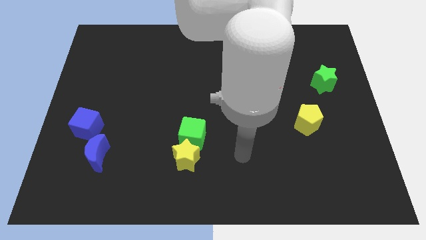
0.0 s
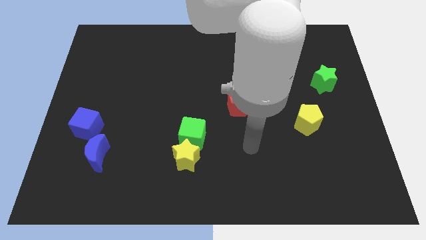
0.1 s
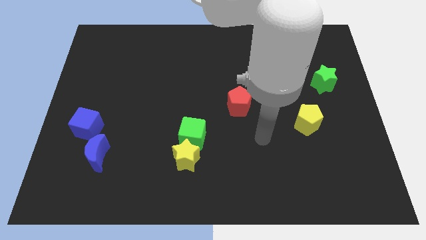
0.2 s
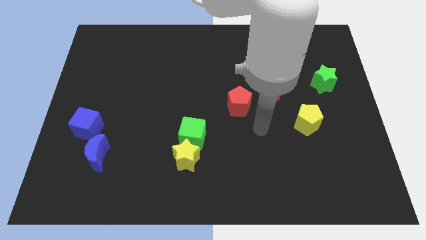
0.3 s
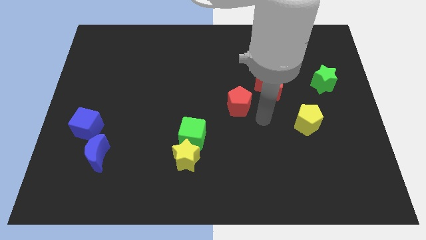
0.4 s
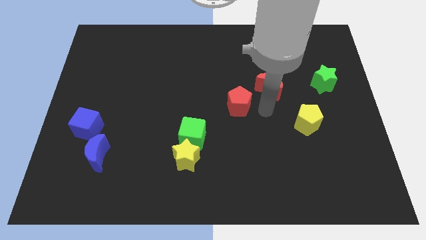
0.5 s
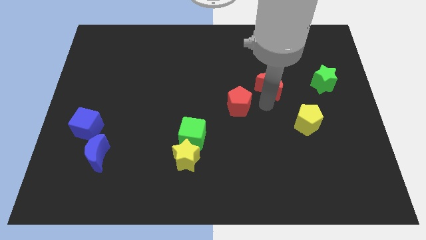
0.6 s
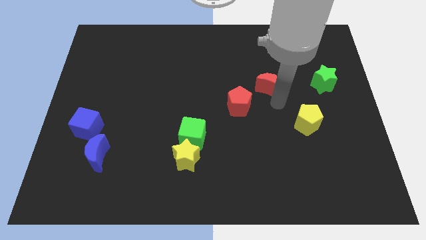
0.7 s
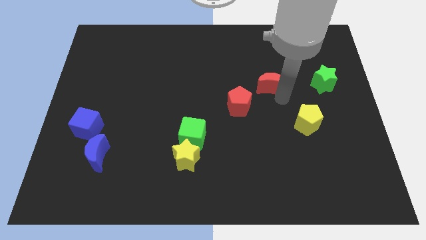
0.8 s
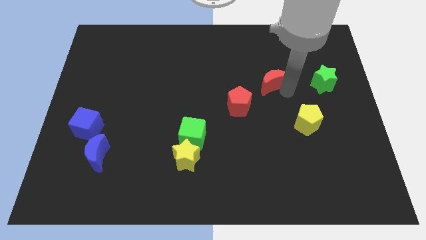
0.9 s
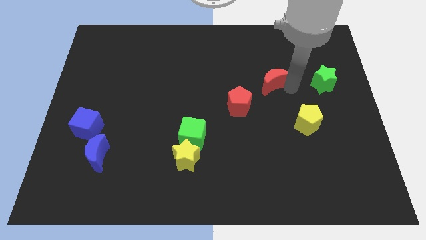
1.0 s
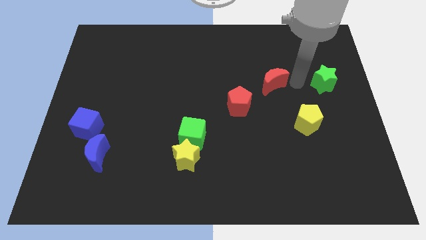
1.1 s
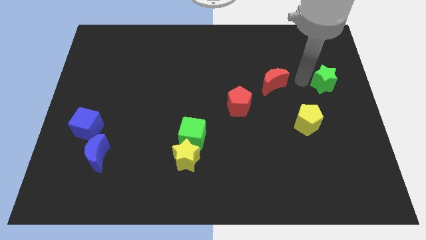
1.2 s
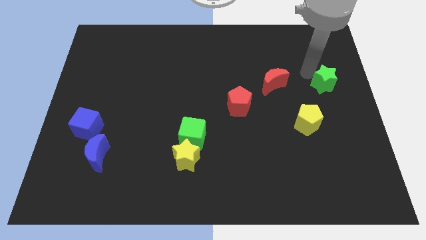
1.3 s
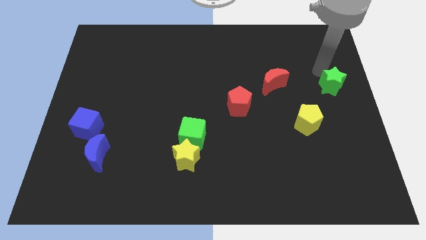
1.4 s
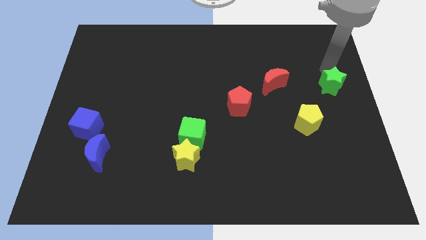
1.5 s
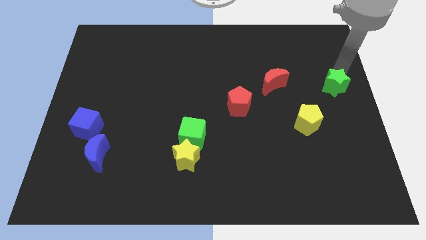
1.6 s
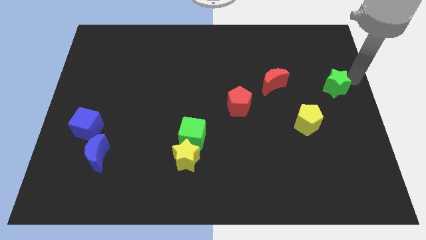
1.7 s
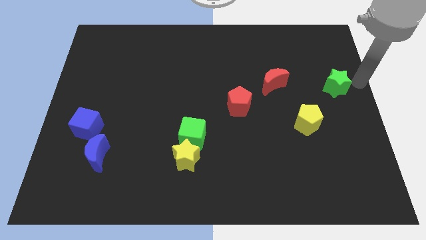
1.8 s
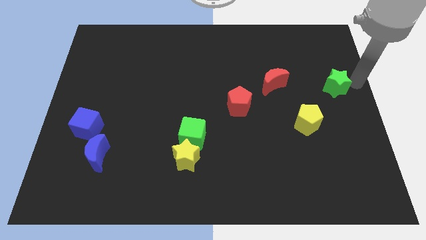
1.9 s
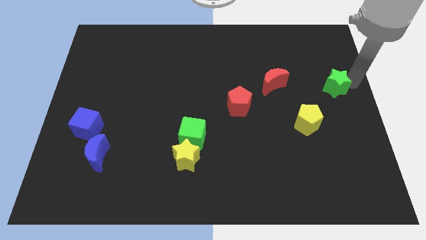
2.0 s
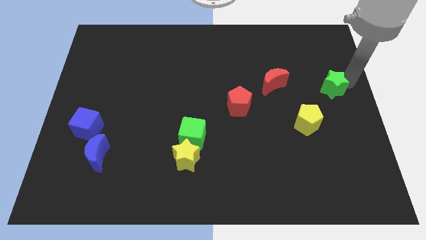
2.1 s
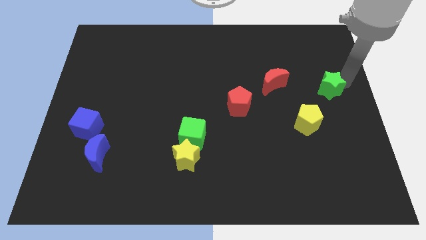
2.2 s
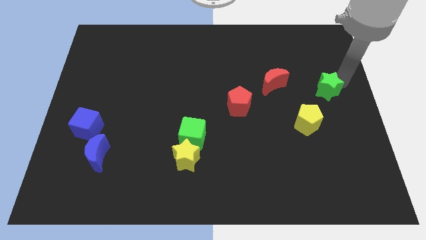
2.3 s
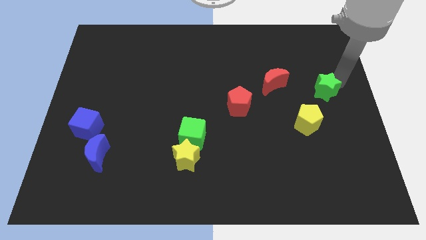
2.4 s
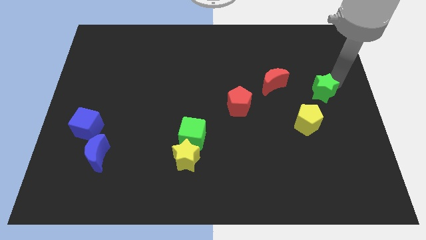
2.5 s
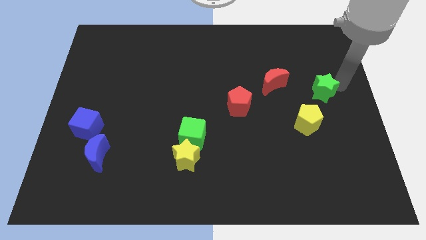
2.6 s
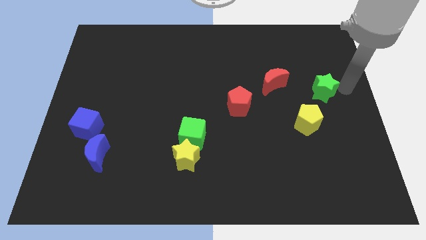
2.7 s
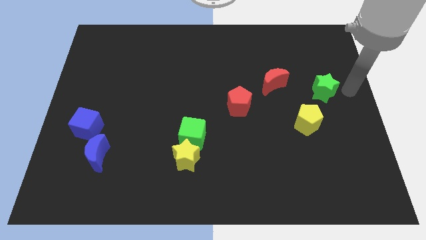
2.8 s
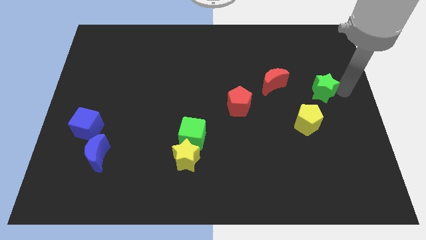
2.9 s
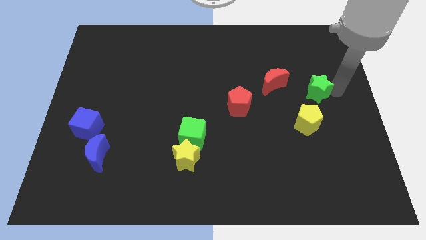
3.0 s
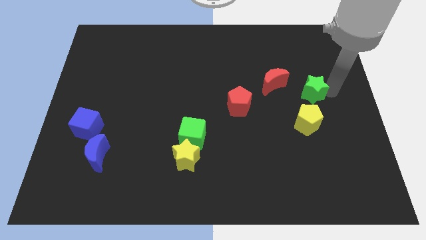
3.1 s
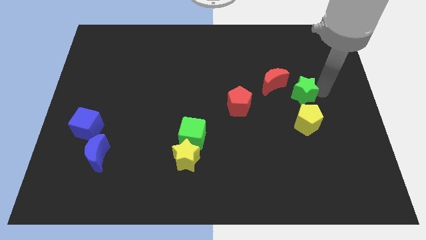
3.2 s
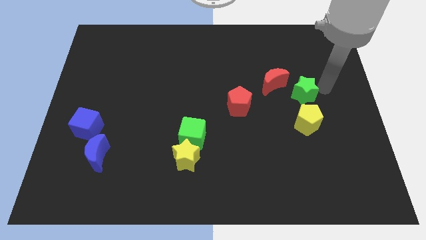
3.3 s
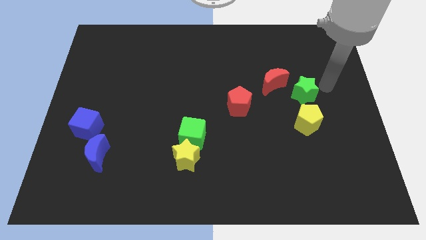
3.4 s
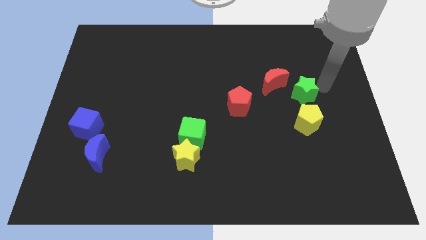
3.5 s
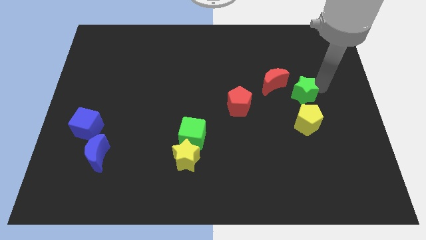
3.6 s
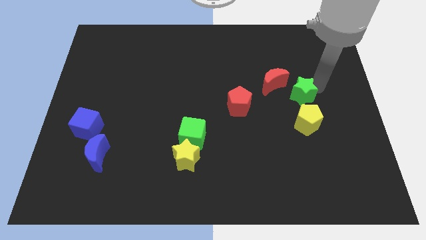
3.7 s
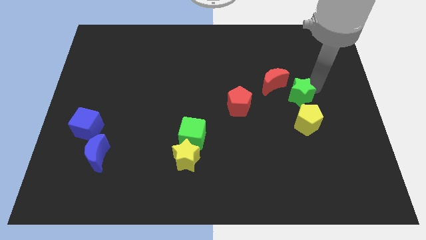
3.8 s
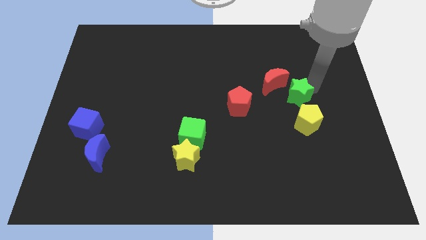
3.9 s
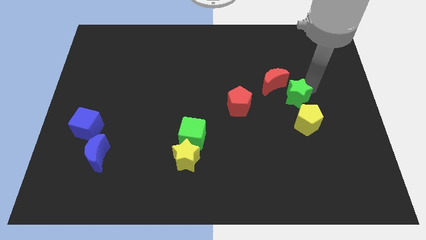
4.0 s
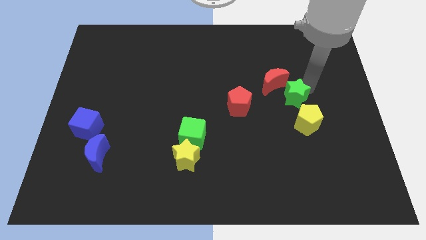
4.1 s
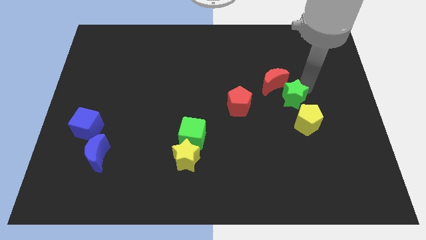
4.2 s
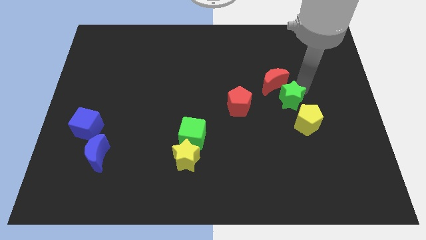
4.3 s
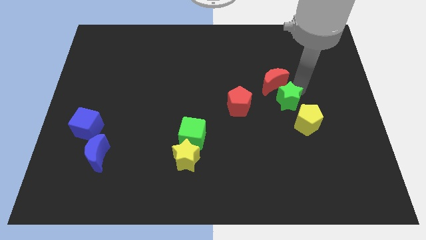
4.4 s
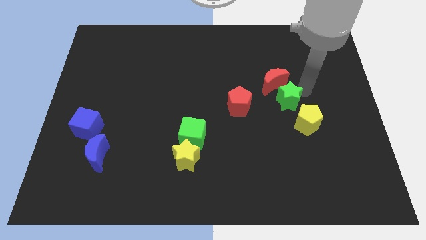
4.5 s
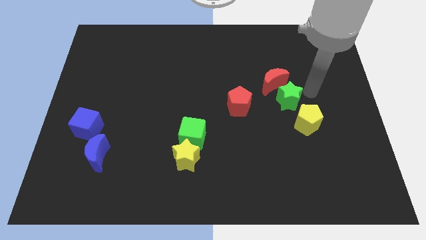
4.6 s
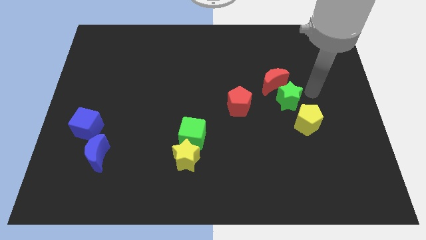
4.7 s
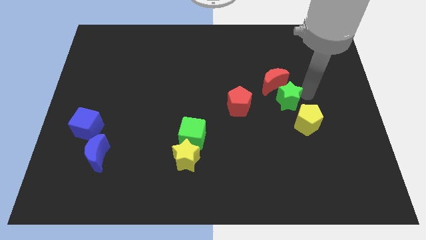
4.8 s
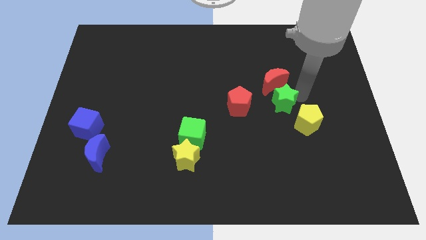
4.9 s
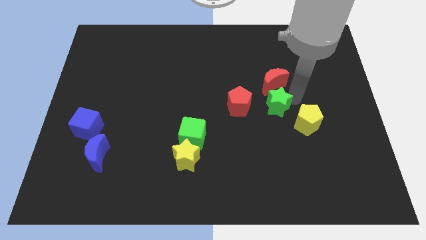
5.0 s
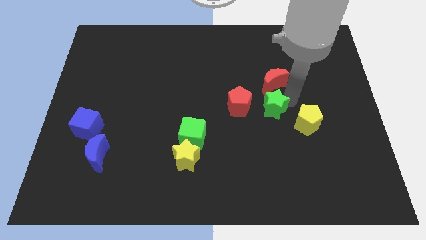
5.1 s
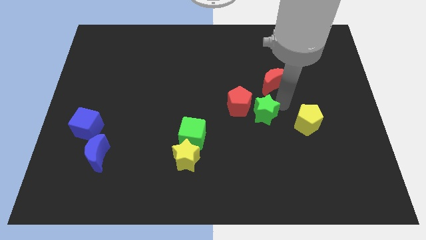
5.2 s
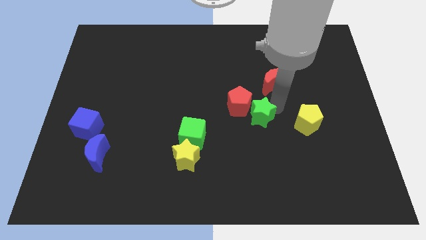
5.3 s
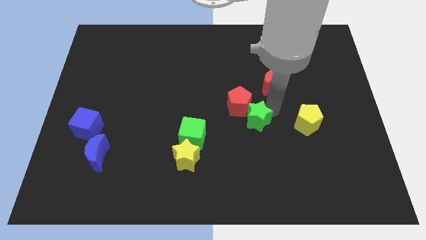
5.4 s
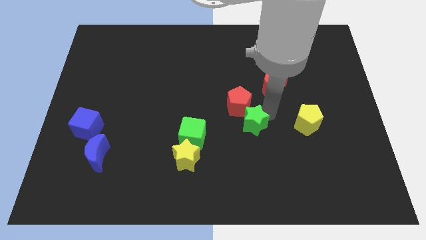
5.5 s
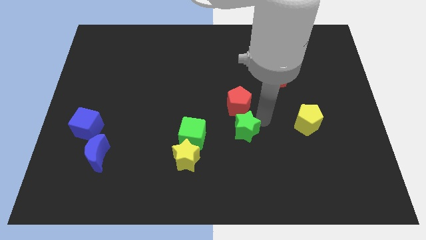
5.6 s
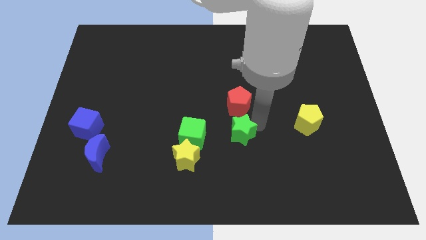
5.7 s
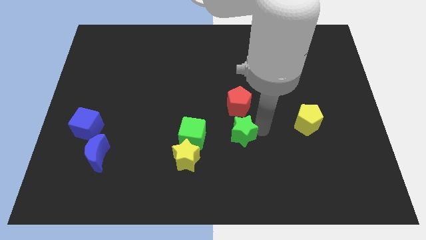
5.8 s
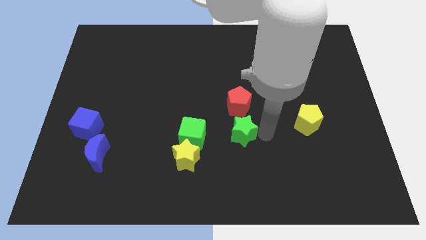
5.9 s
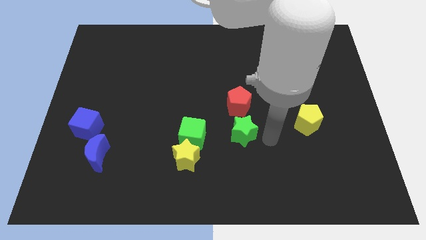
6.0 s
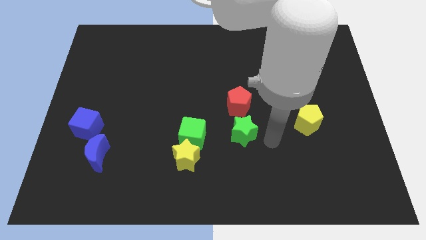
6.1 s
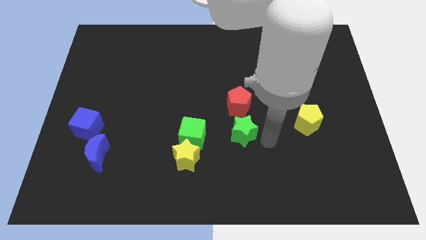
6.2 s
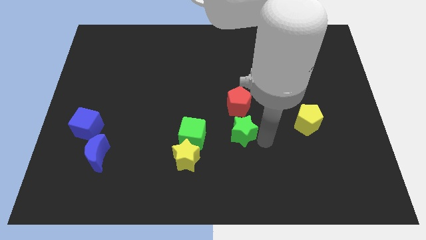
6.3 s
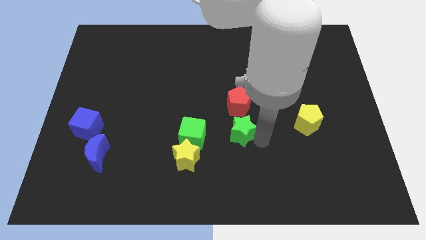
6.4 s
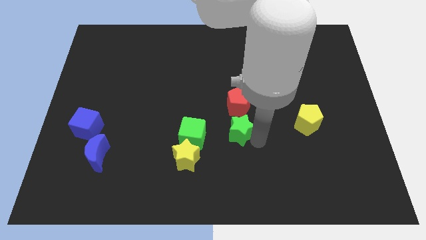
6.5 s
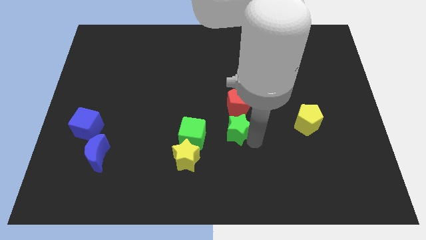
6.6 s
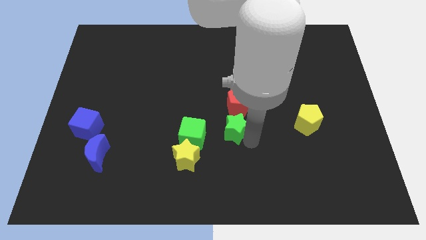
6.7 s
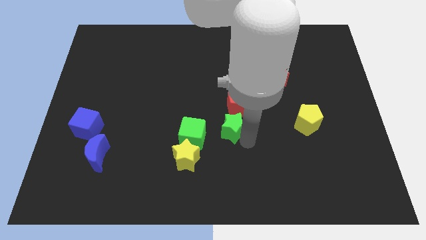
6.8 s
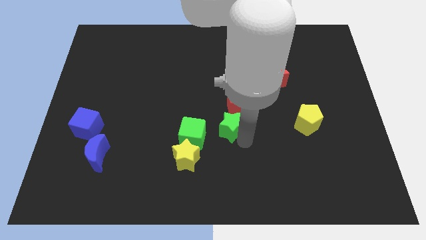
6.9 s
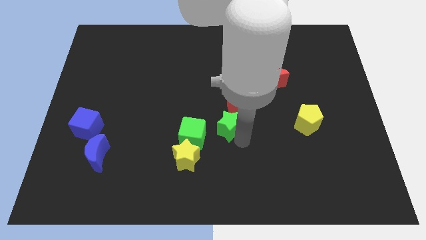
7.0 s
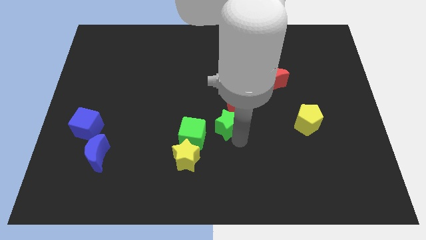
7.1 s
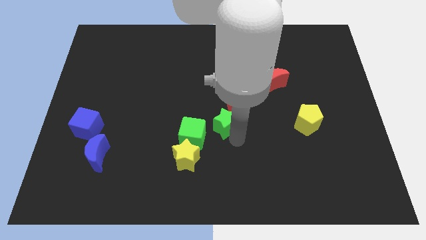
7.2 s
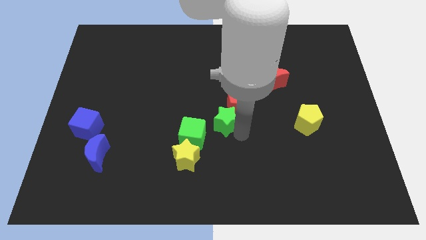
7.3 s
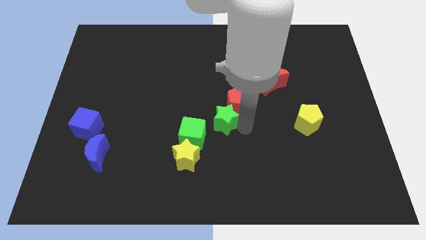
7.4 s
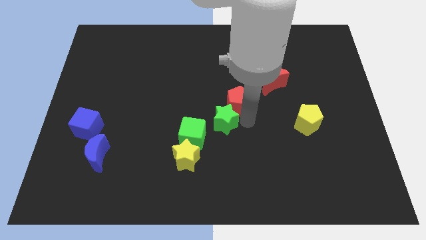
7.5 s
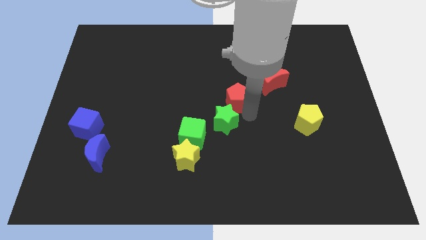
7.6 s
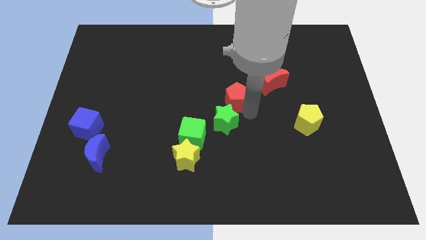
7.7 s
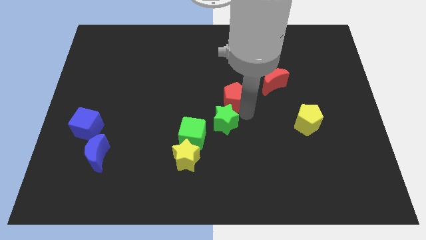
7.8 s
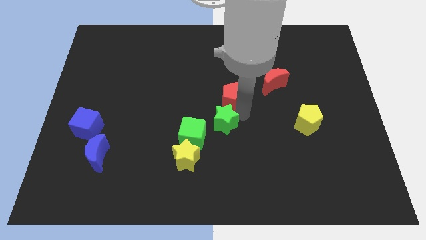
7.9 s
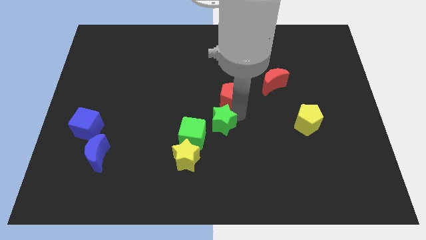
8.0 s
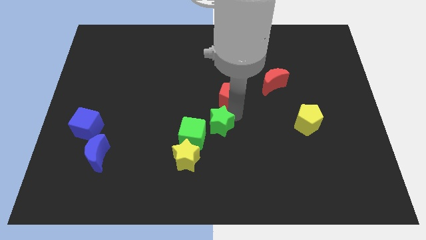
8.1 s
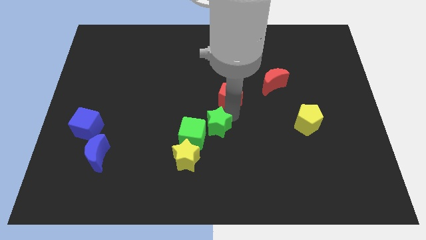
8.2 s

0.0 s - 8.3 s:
move the green star to the green cube

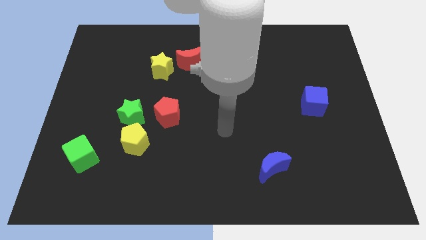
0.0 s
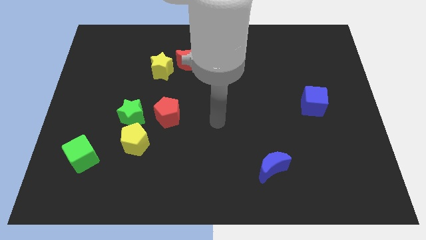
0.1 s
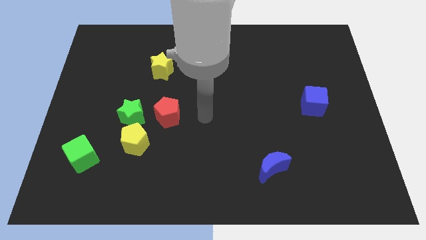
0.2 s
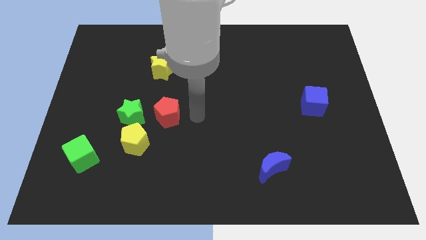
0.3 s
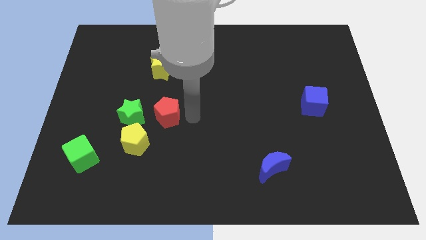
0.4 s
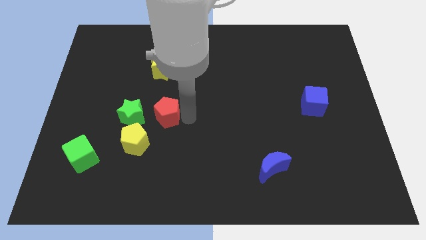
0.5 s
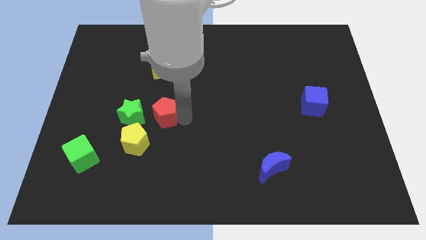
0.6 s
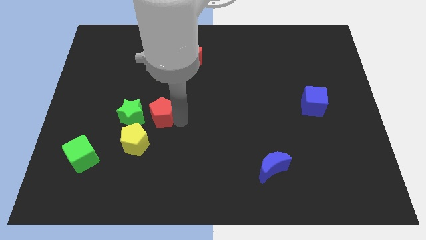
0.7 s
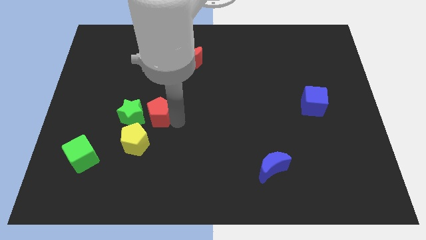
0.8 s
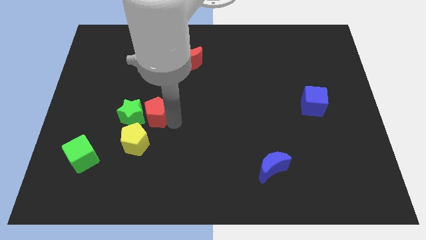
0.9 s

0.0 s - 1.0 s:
put the red pentagon to the green star
